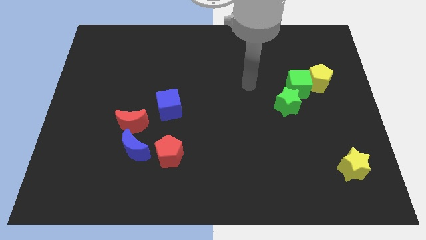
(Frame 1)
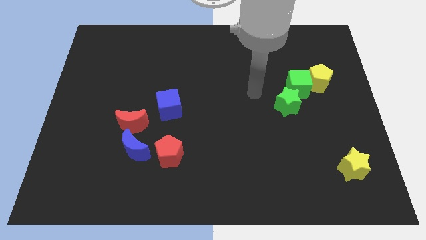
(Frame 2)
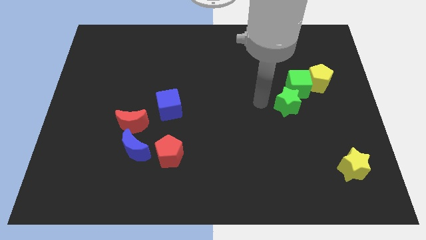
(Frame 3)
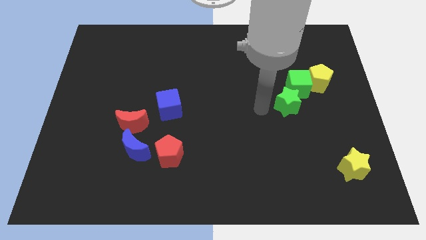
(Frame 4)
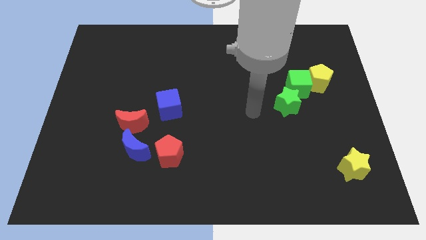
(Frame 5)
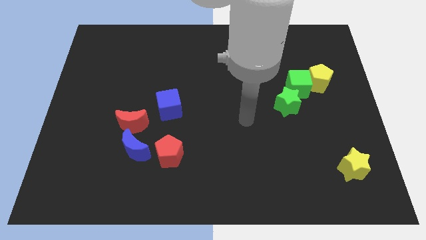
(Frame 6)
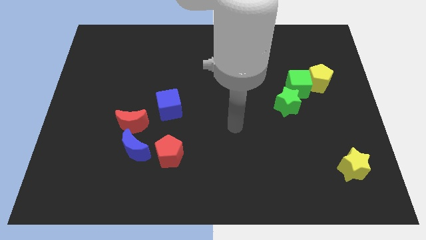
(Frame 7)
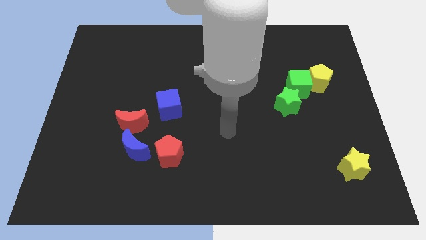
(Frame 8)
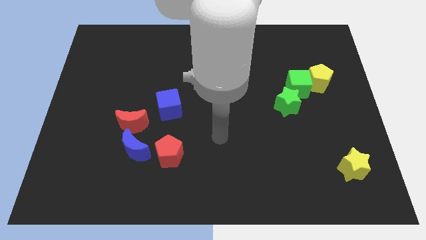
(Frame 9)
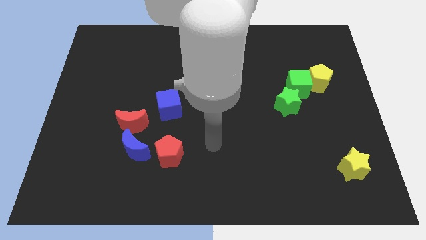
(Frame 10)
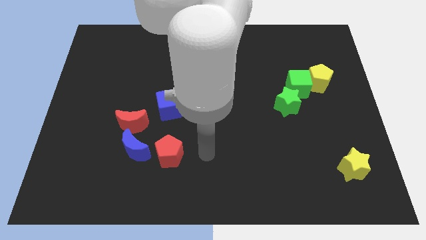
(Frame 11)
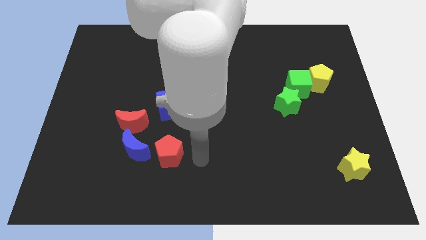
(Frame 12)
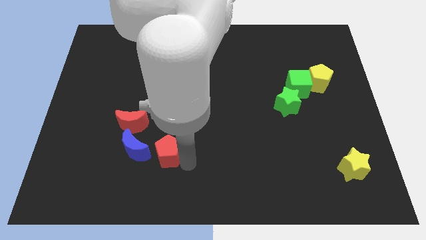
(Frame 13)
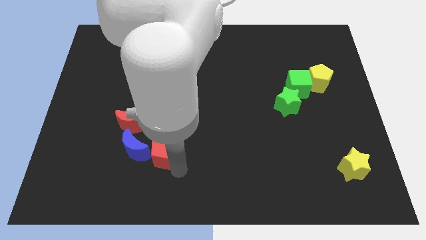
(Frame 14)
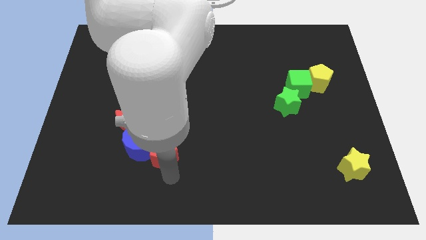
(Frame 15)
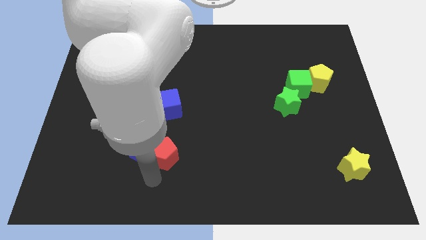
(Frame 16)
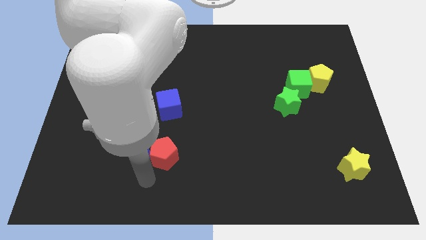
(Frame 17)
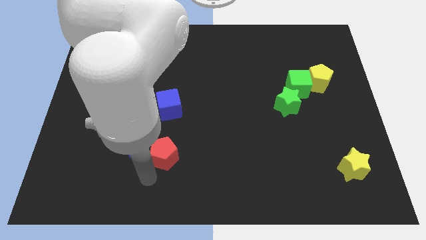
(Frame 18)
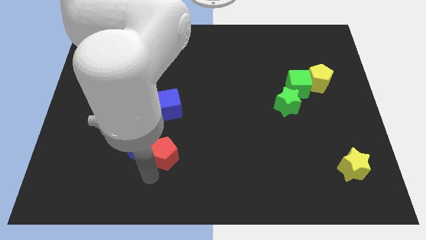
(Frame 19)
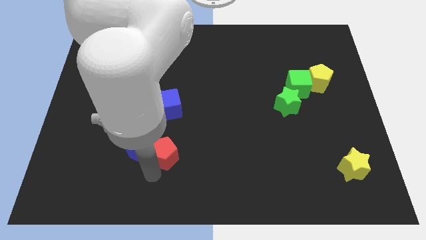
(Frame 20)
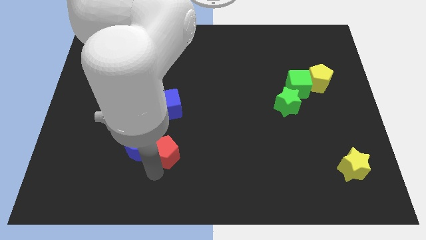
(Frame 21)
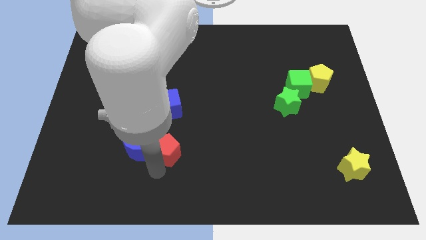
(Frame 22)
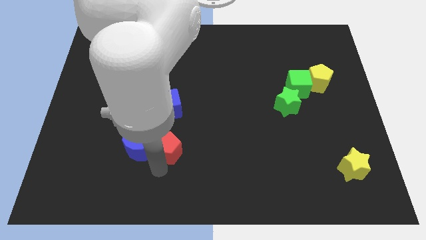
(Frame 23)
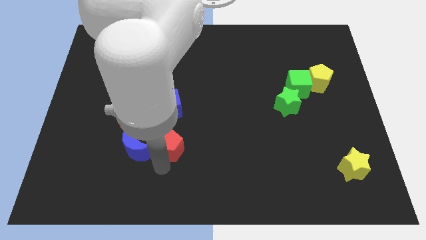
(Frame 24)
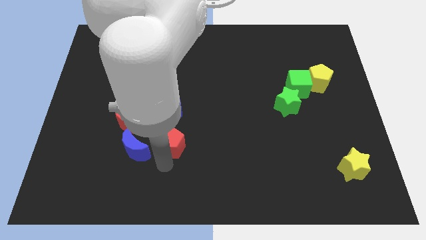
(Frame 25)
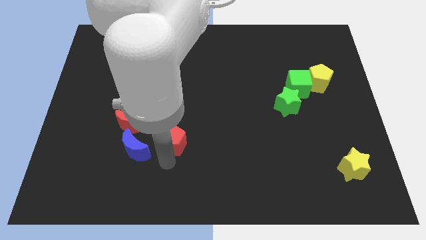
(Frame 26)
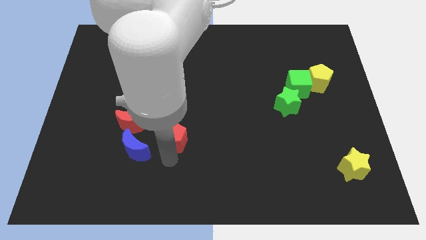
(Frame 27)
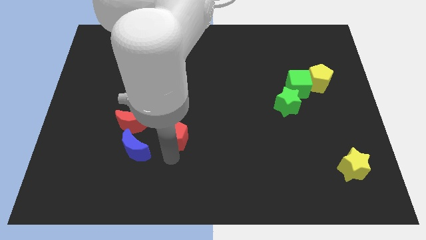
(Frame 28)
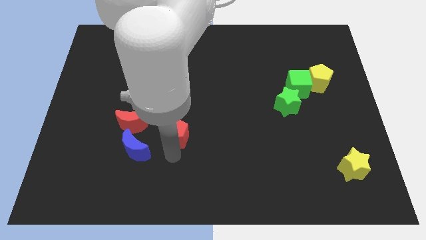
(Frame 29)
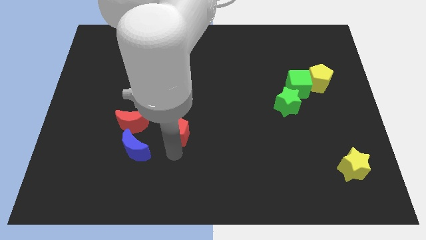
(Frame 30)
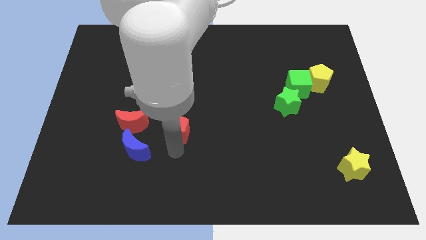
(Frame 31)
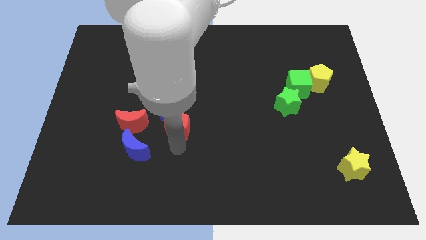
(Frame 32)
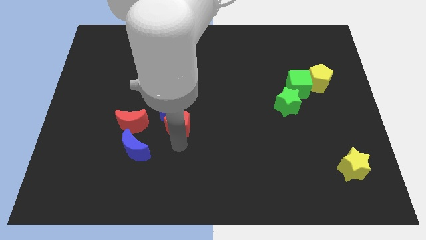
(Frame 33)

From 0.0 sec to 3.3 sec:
slightly move the red pentagon upwards

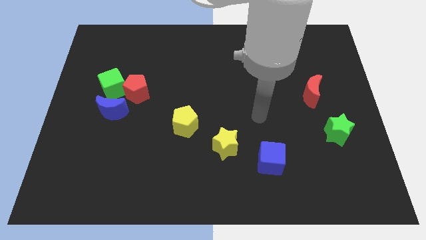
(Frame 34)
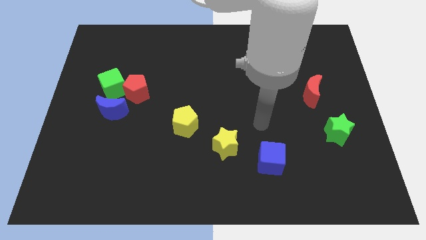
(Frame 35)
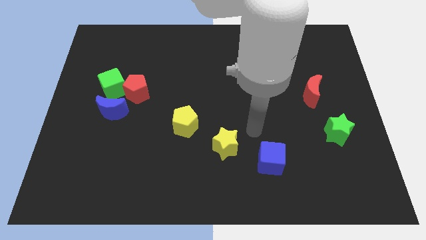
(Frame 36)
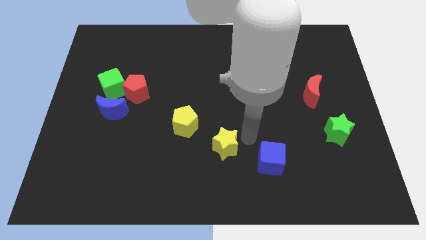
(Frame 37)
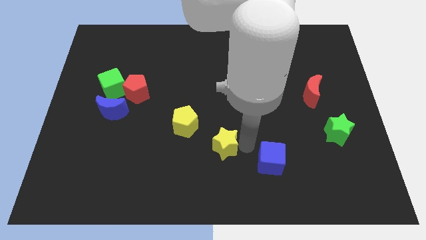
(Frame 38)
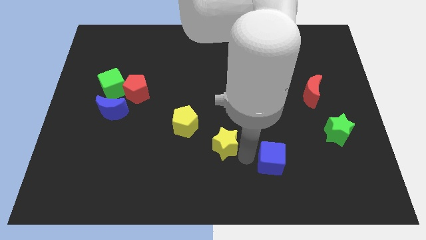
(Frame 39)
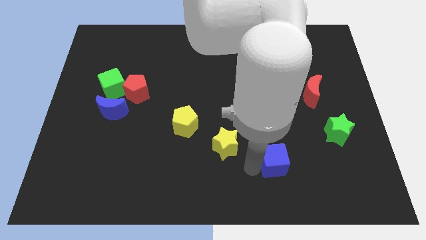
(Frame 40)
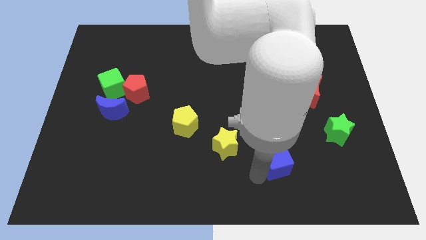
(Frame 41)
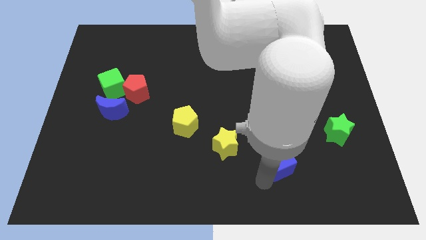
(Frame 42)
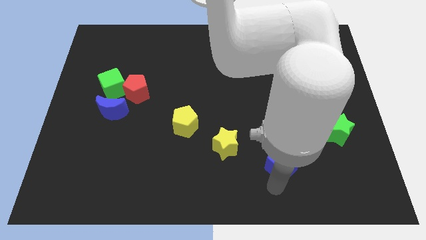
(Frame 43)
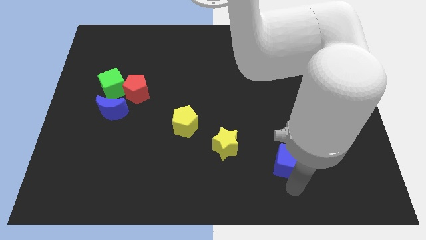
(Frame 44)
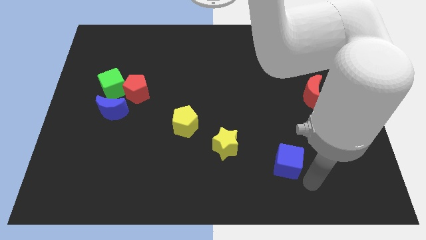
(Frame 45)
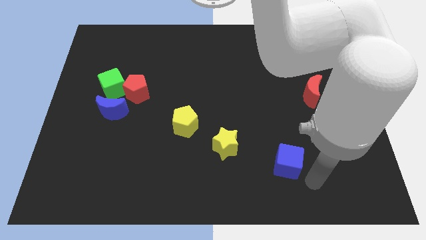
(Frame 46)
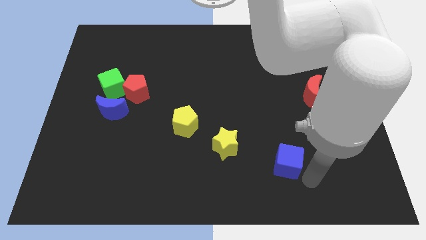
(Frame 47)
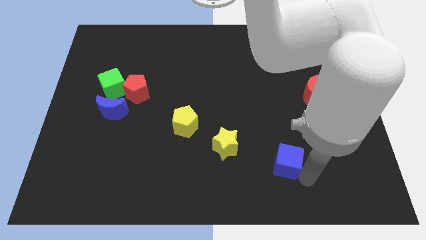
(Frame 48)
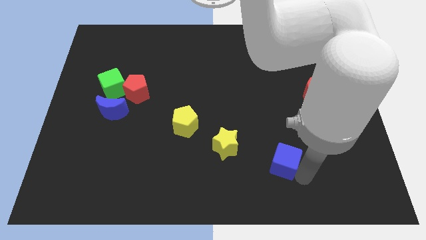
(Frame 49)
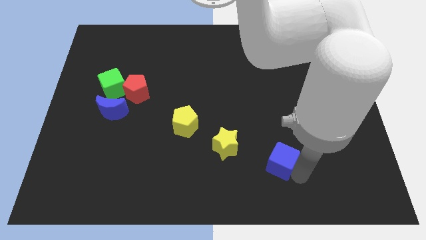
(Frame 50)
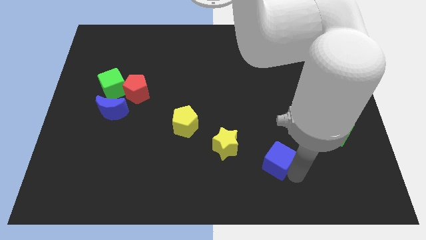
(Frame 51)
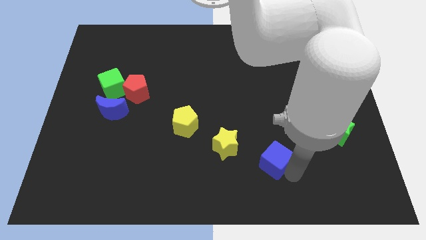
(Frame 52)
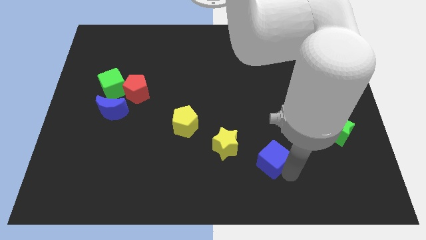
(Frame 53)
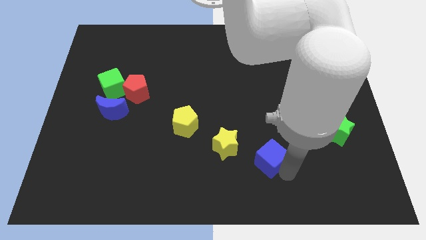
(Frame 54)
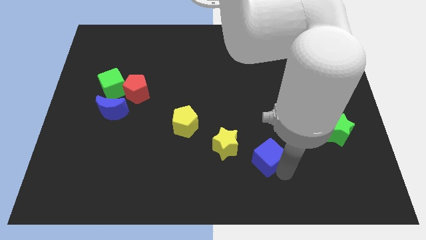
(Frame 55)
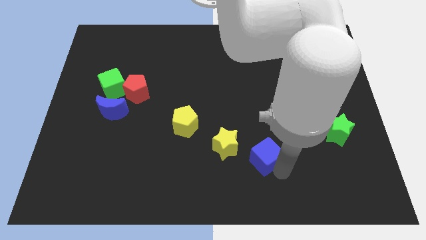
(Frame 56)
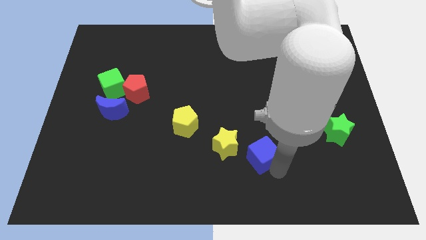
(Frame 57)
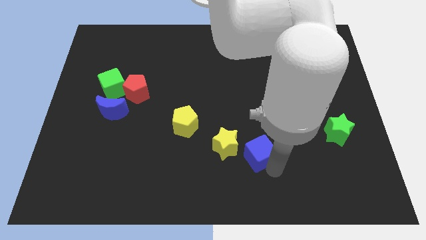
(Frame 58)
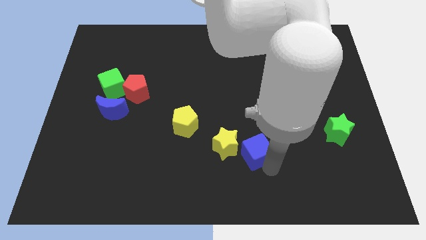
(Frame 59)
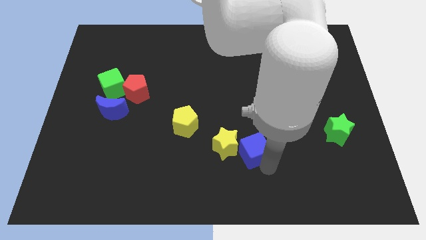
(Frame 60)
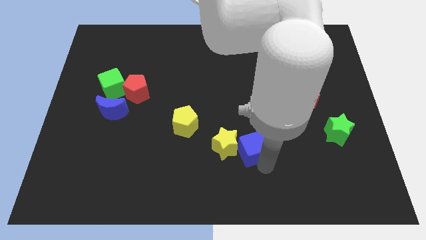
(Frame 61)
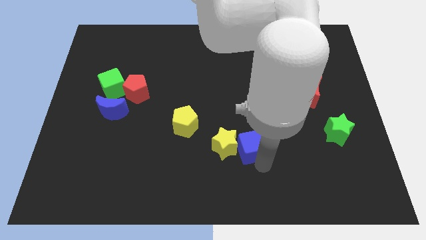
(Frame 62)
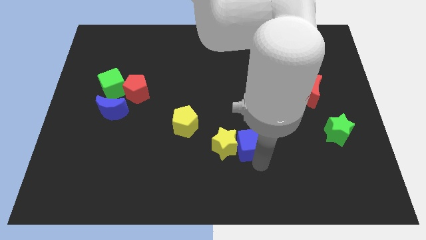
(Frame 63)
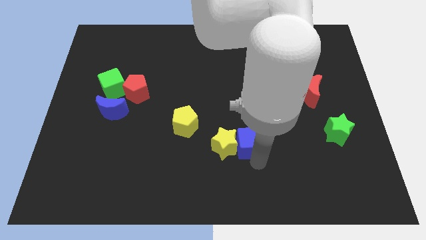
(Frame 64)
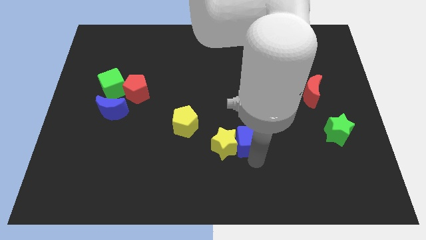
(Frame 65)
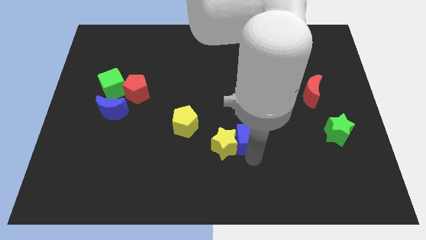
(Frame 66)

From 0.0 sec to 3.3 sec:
move the blue cube upwards and left a bit

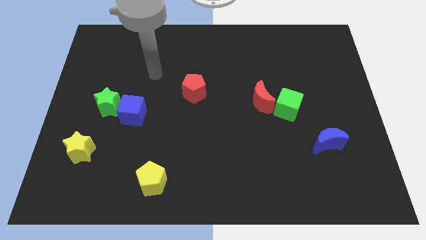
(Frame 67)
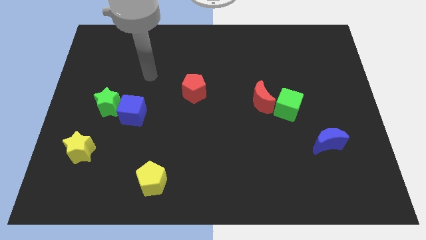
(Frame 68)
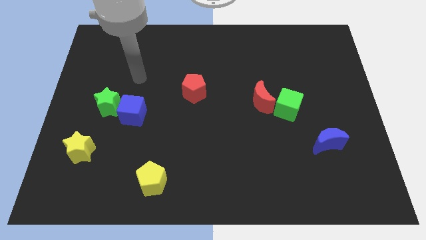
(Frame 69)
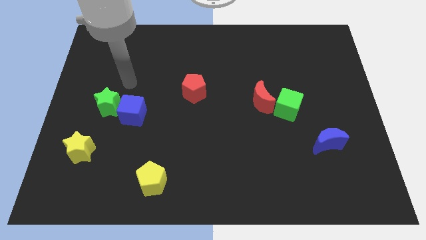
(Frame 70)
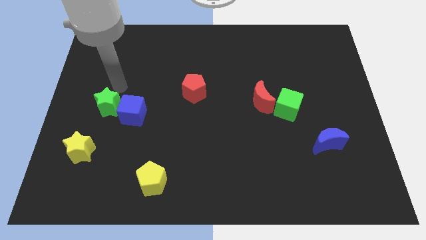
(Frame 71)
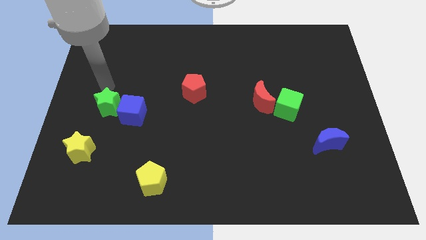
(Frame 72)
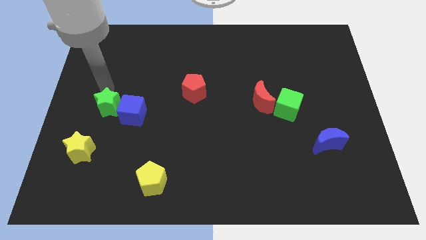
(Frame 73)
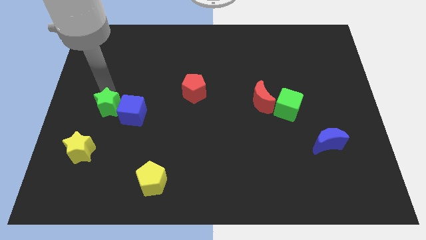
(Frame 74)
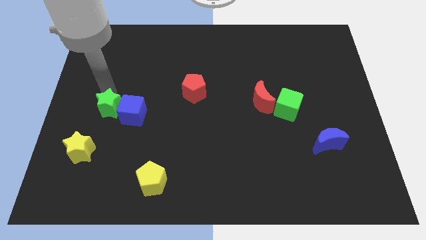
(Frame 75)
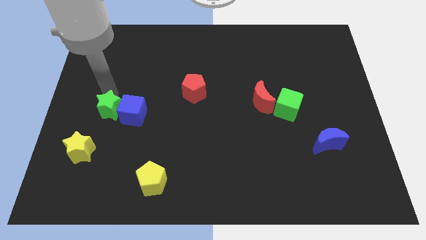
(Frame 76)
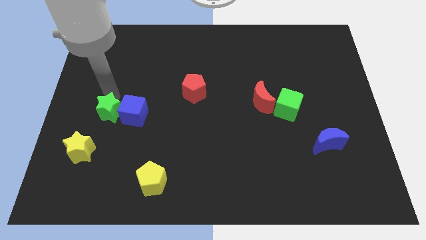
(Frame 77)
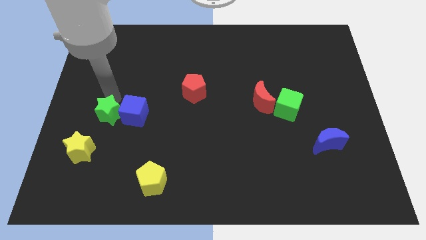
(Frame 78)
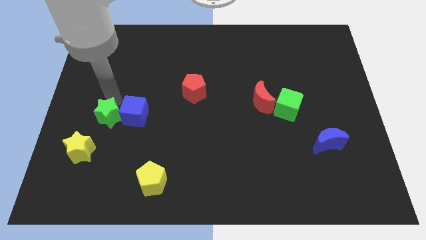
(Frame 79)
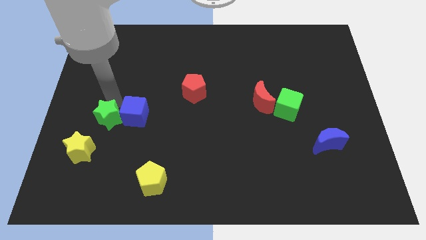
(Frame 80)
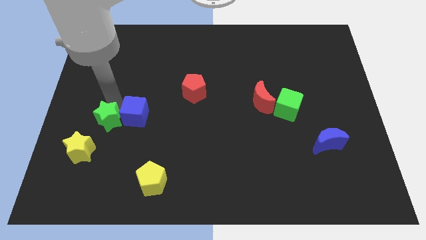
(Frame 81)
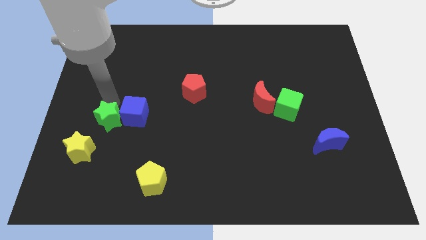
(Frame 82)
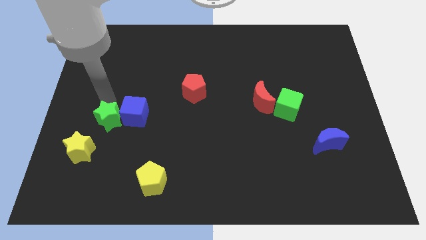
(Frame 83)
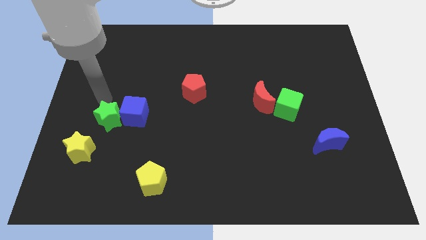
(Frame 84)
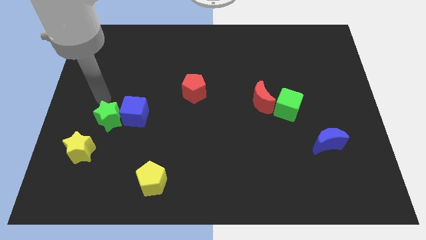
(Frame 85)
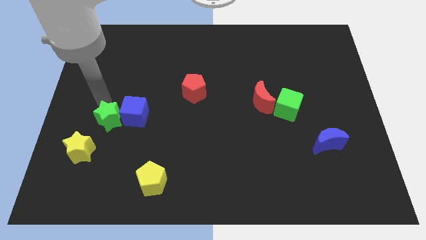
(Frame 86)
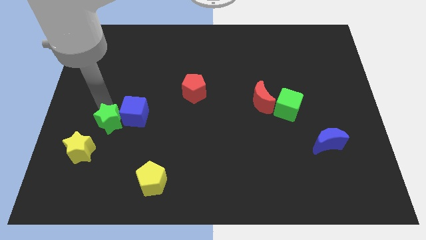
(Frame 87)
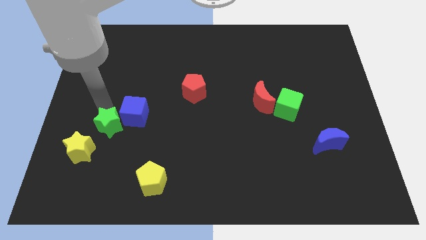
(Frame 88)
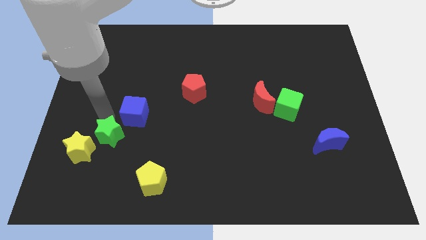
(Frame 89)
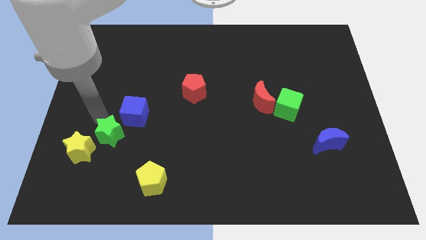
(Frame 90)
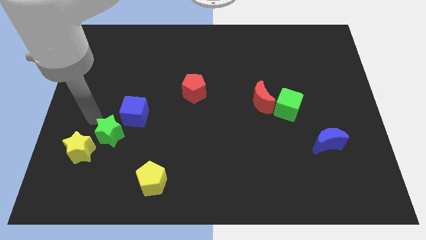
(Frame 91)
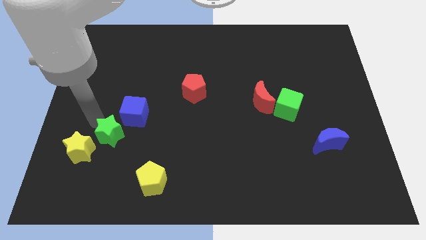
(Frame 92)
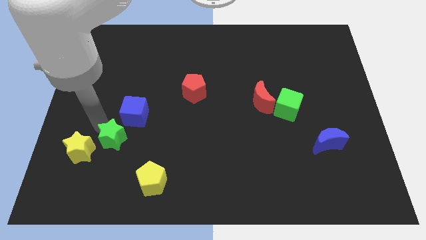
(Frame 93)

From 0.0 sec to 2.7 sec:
slightly push the green star down and to the right
